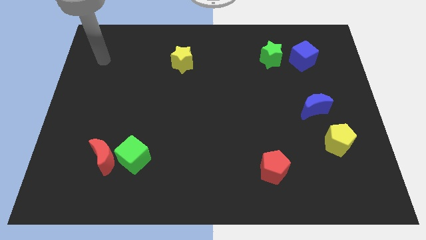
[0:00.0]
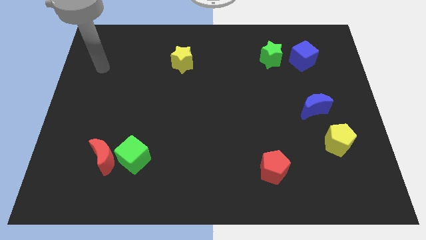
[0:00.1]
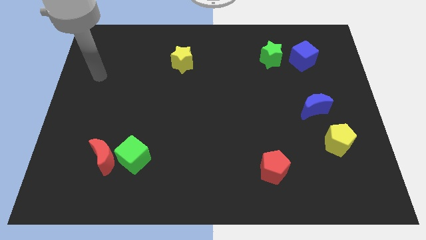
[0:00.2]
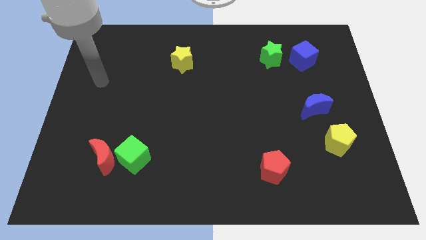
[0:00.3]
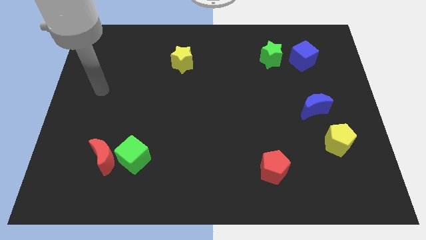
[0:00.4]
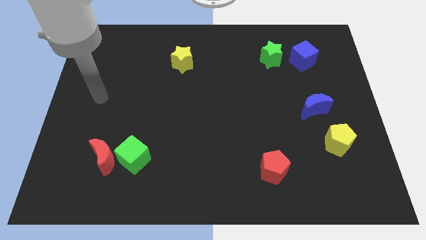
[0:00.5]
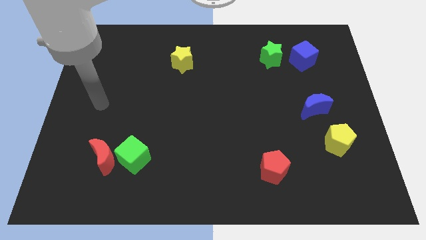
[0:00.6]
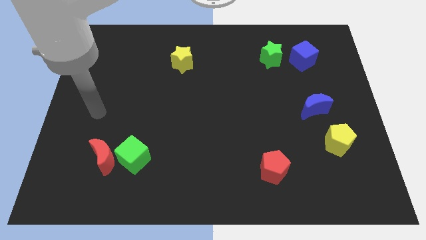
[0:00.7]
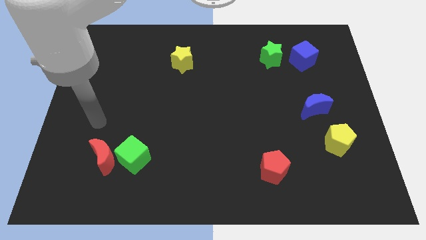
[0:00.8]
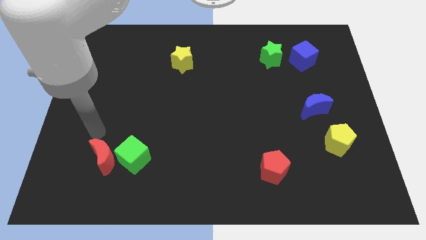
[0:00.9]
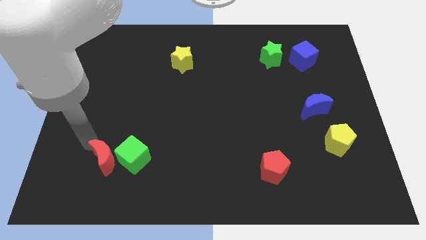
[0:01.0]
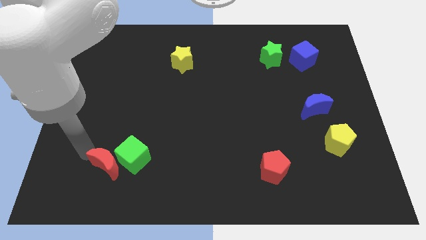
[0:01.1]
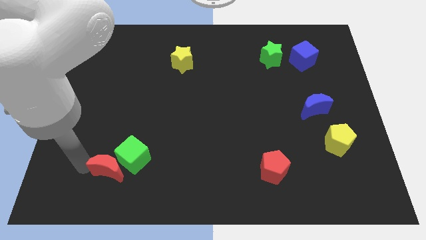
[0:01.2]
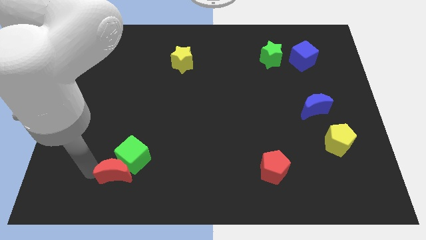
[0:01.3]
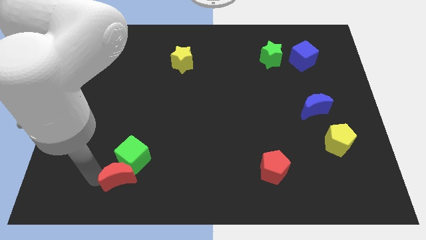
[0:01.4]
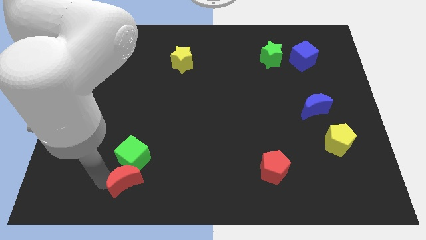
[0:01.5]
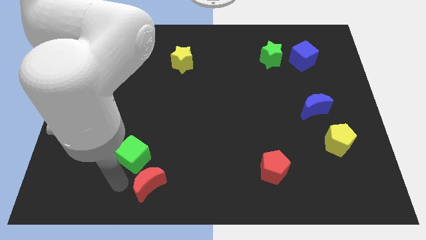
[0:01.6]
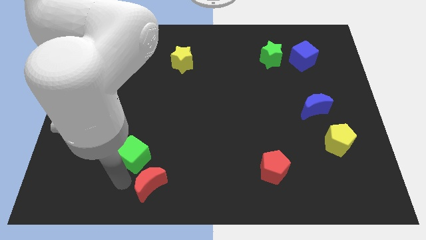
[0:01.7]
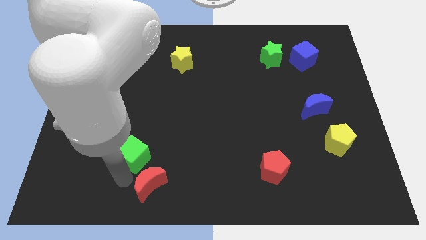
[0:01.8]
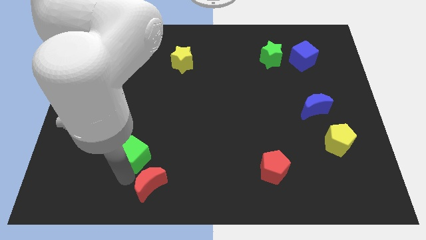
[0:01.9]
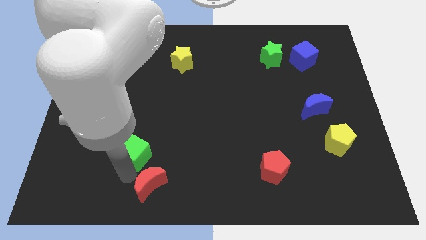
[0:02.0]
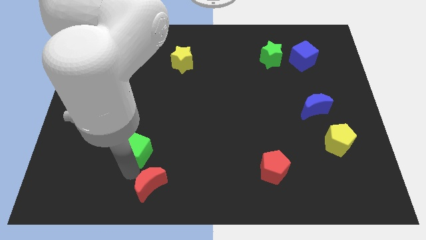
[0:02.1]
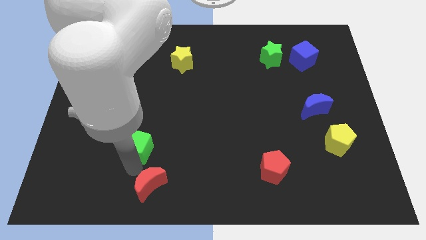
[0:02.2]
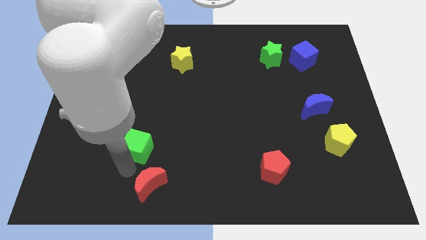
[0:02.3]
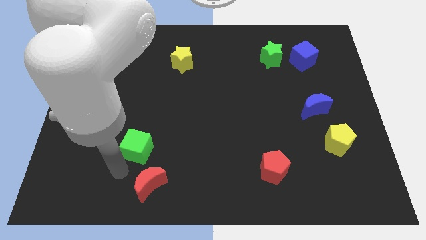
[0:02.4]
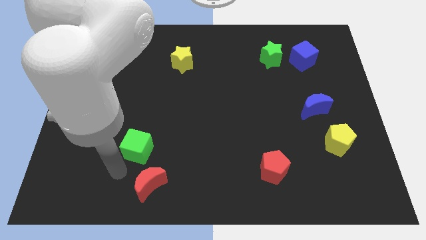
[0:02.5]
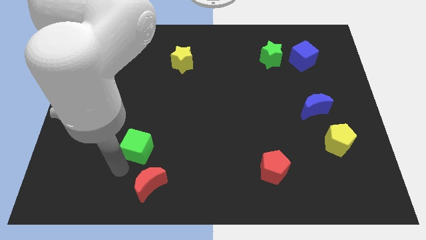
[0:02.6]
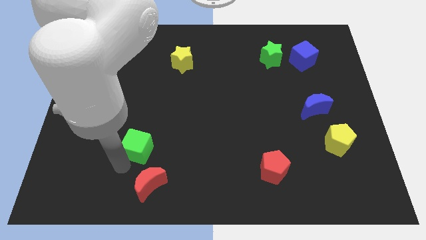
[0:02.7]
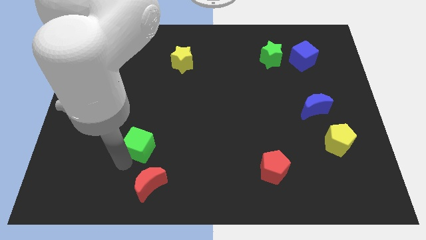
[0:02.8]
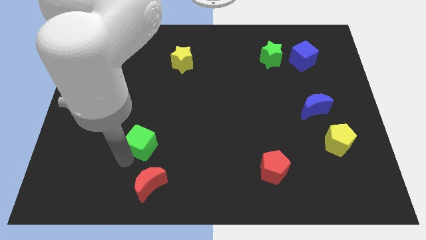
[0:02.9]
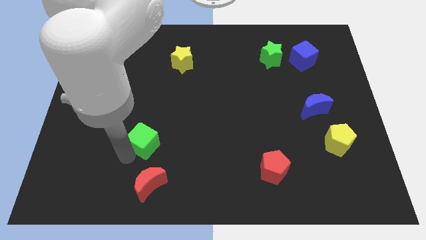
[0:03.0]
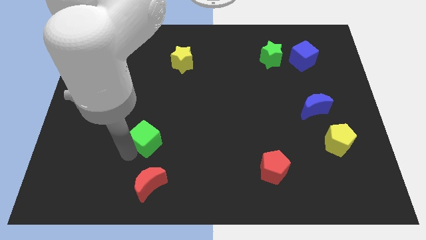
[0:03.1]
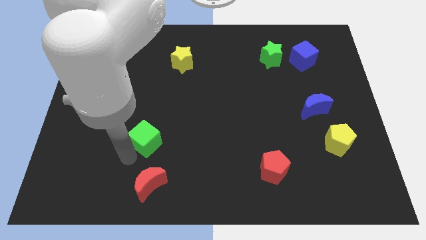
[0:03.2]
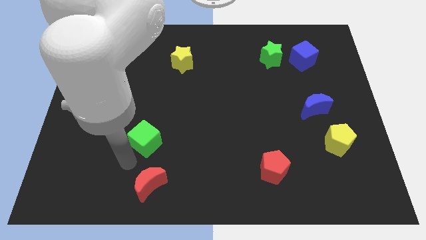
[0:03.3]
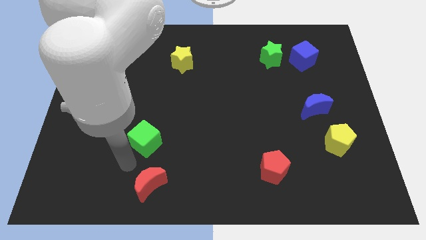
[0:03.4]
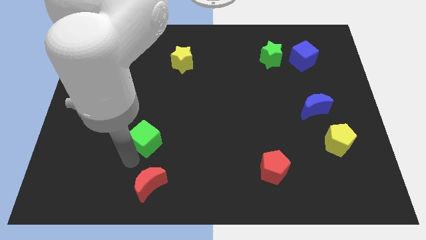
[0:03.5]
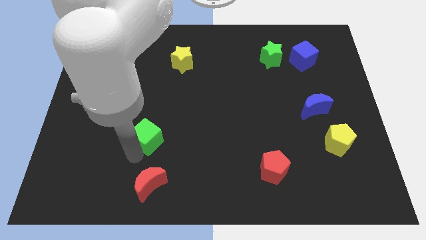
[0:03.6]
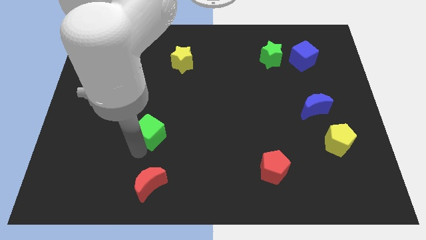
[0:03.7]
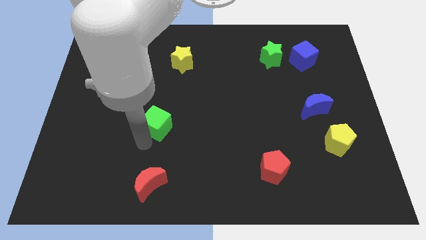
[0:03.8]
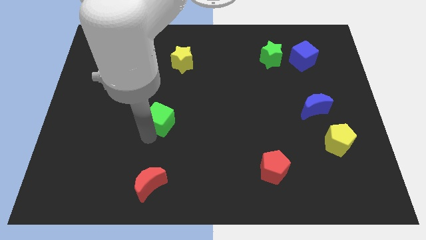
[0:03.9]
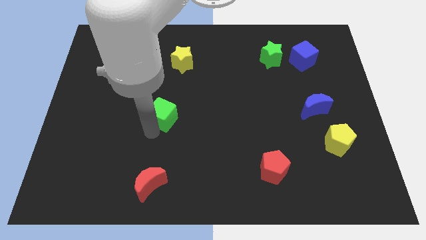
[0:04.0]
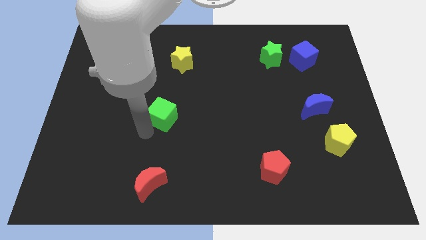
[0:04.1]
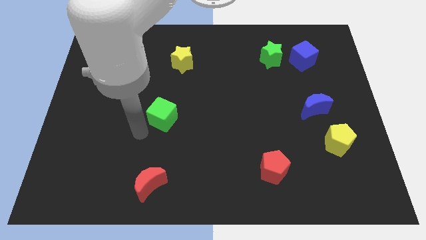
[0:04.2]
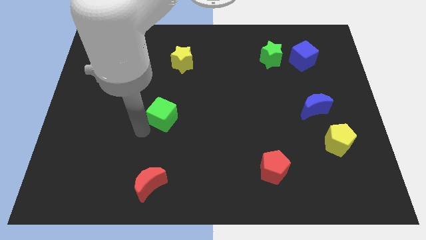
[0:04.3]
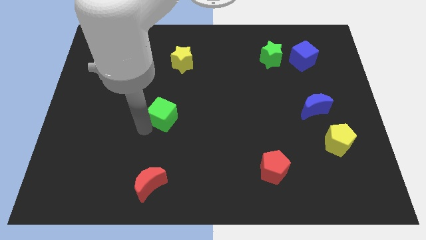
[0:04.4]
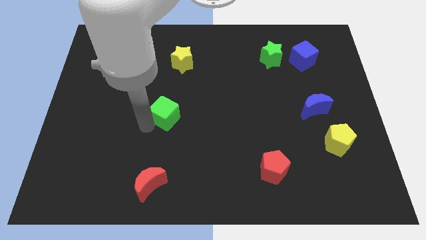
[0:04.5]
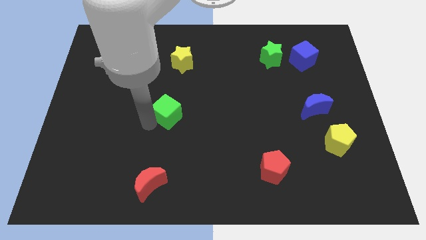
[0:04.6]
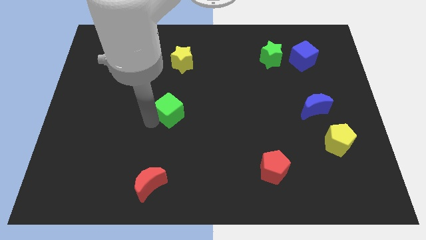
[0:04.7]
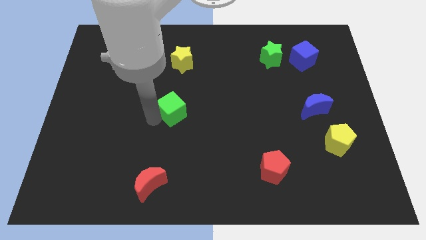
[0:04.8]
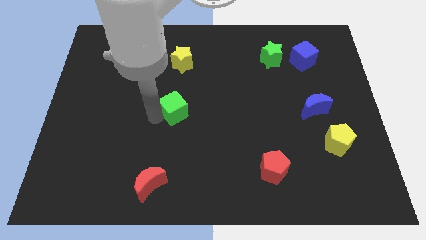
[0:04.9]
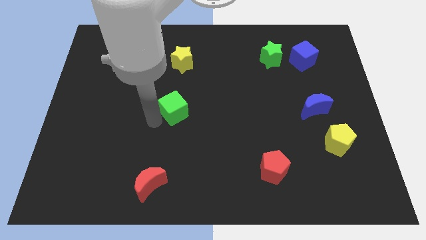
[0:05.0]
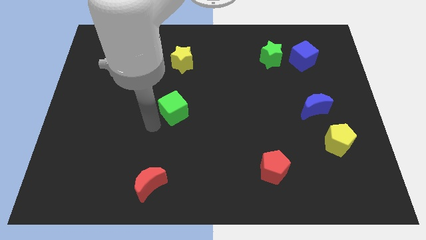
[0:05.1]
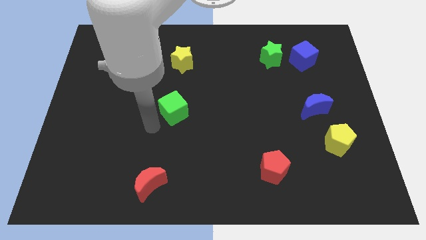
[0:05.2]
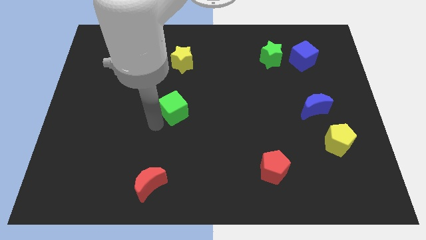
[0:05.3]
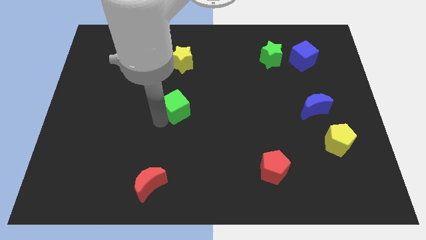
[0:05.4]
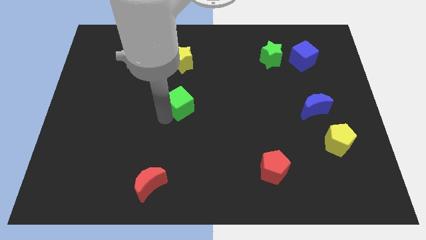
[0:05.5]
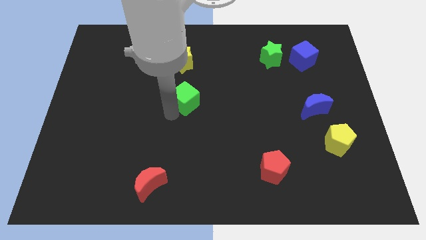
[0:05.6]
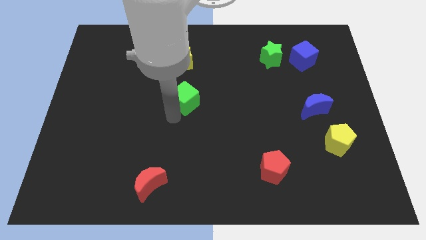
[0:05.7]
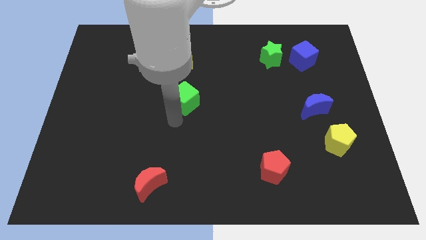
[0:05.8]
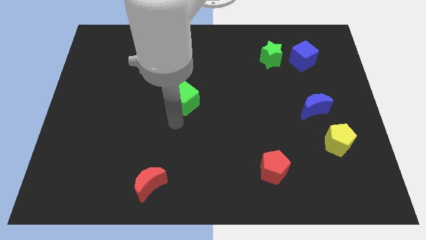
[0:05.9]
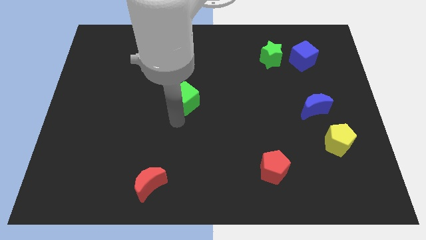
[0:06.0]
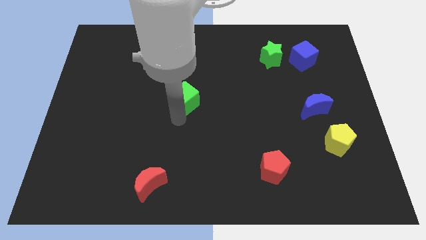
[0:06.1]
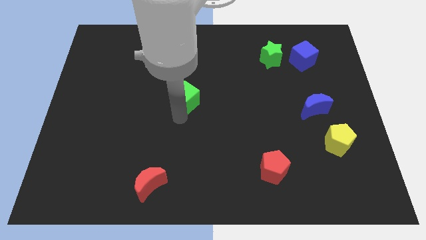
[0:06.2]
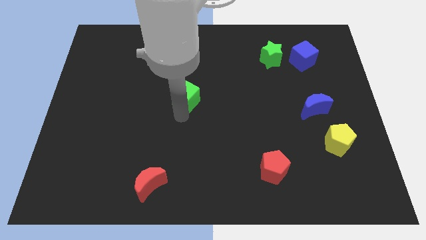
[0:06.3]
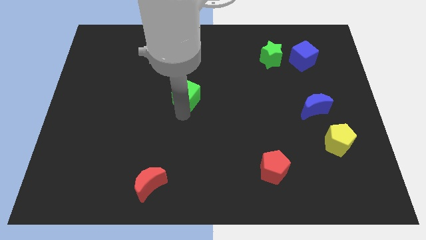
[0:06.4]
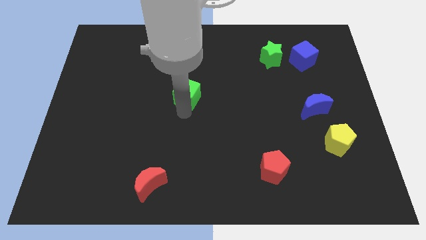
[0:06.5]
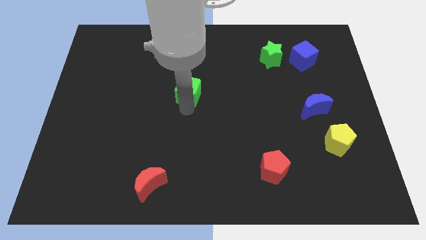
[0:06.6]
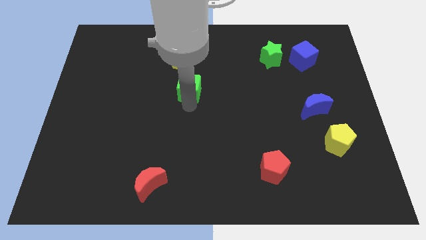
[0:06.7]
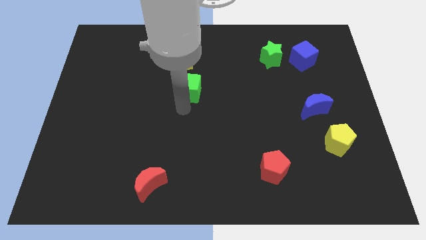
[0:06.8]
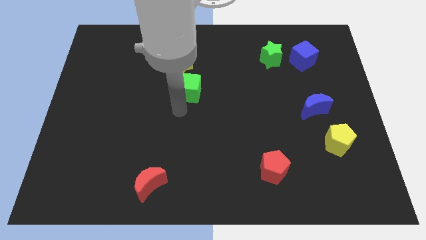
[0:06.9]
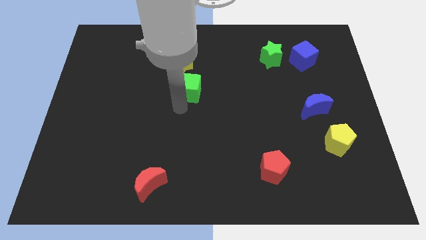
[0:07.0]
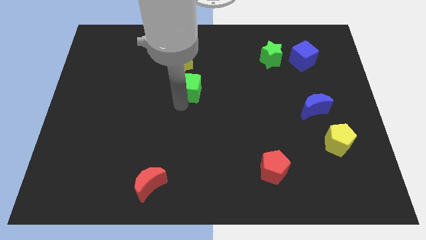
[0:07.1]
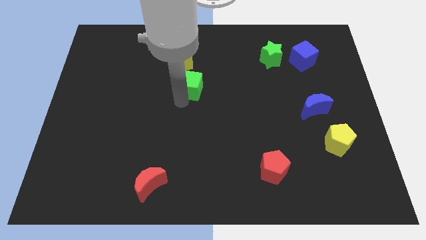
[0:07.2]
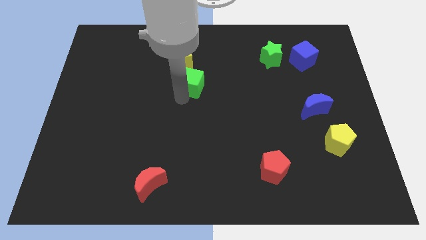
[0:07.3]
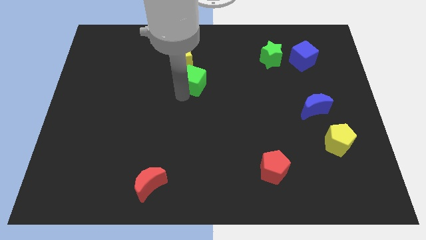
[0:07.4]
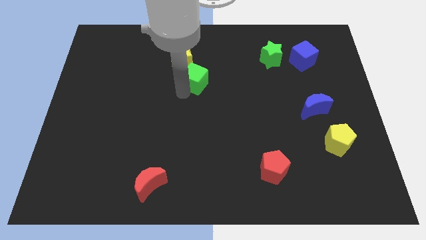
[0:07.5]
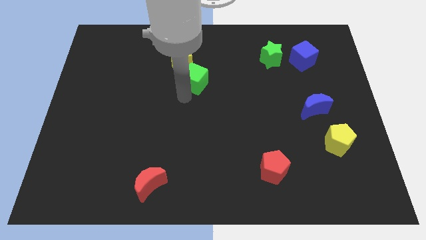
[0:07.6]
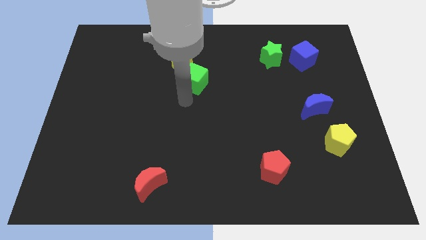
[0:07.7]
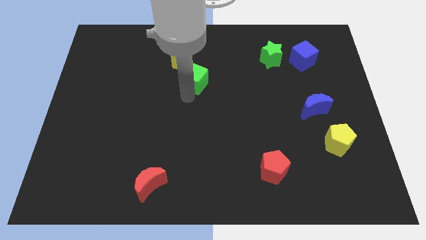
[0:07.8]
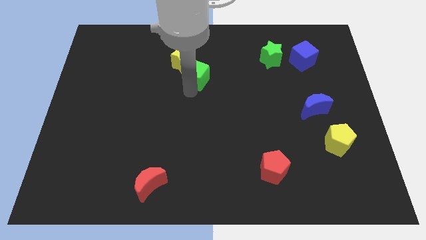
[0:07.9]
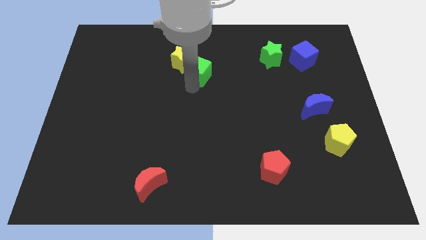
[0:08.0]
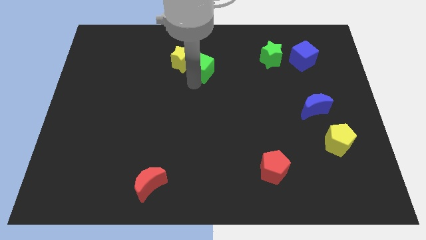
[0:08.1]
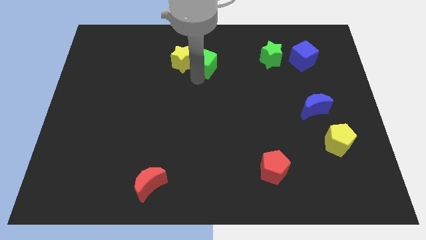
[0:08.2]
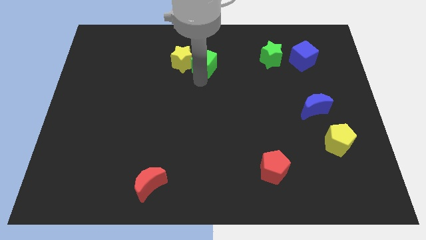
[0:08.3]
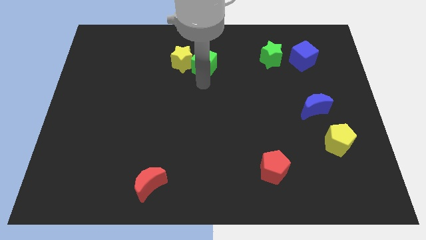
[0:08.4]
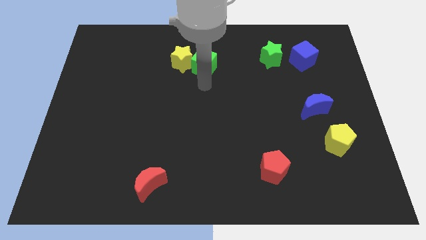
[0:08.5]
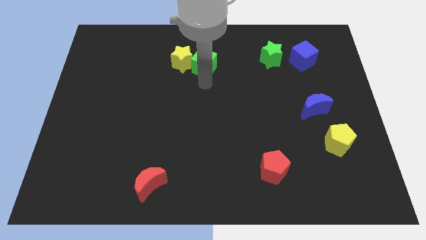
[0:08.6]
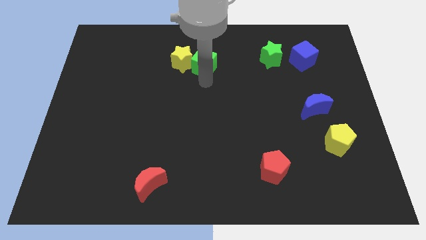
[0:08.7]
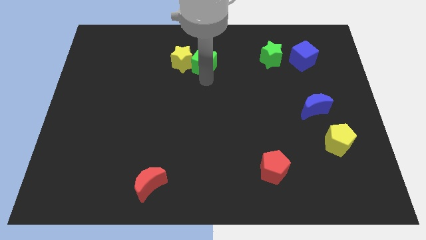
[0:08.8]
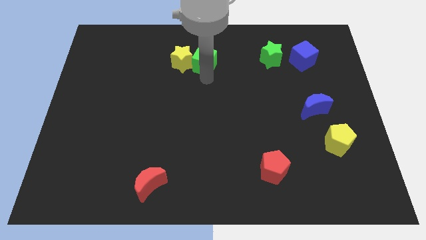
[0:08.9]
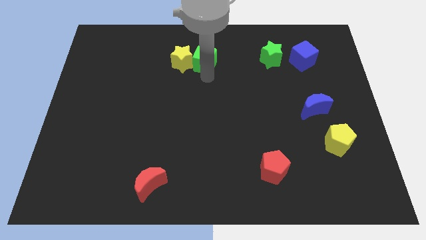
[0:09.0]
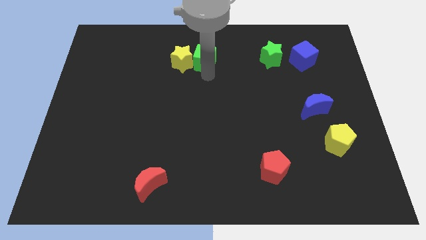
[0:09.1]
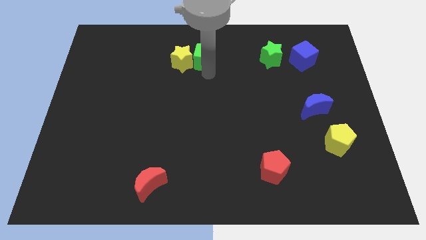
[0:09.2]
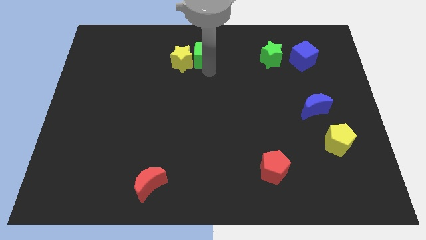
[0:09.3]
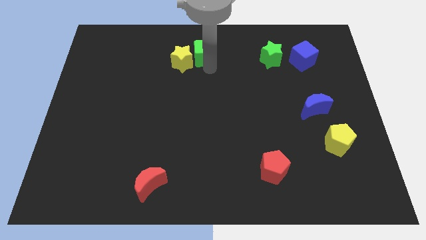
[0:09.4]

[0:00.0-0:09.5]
move the green cube to the top
